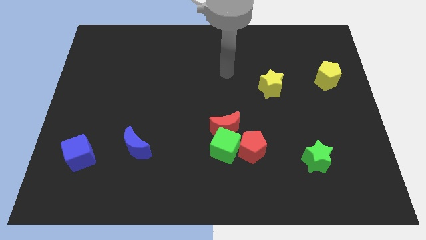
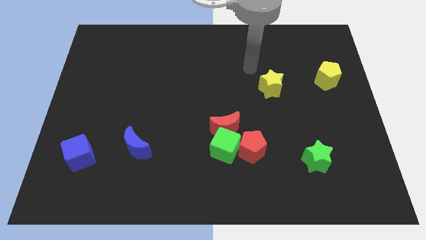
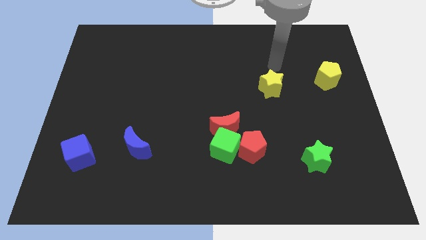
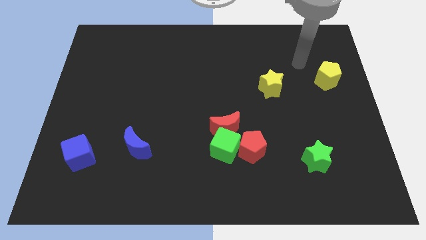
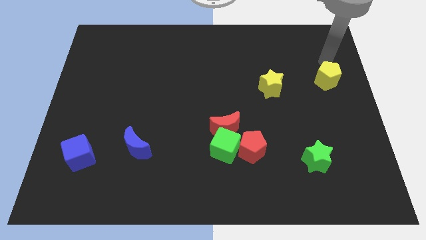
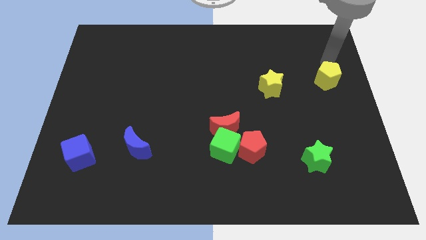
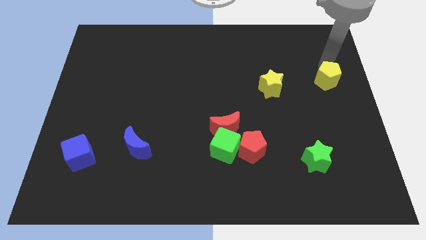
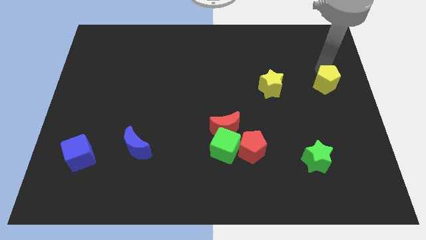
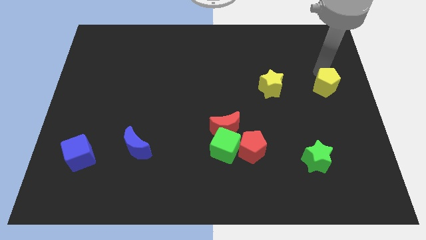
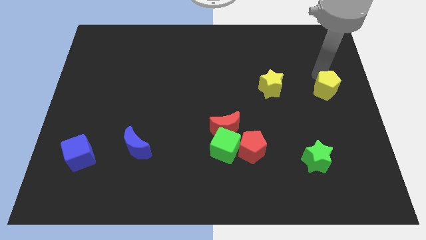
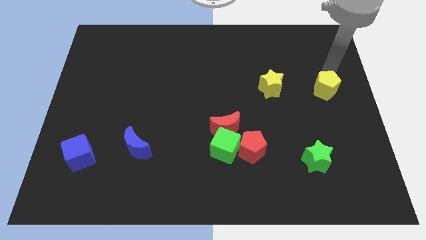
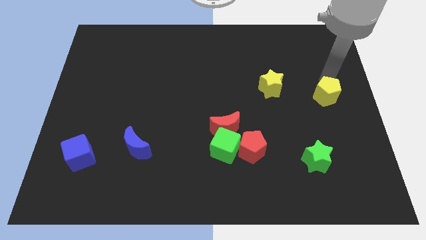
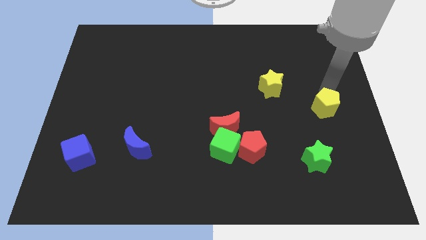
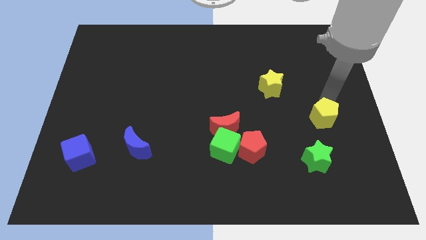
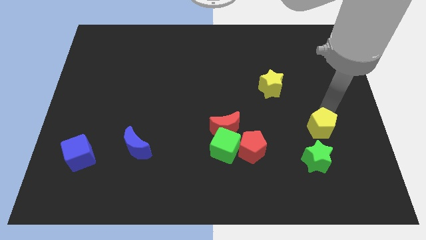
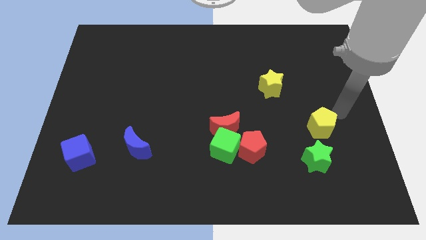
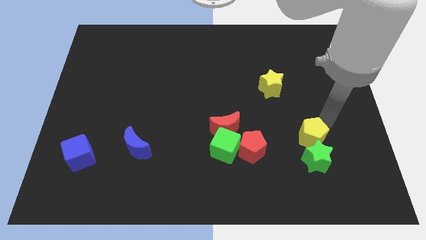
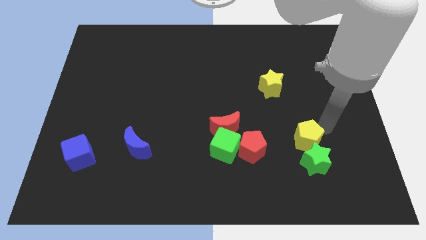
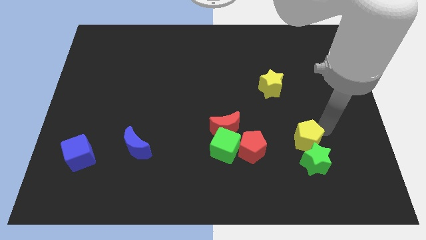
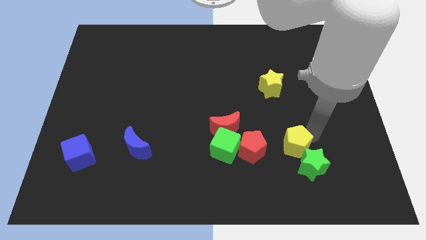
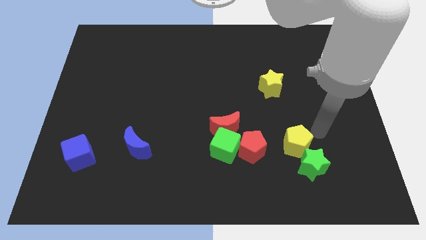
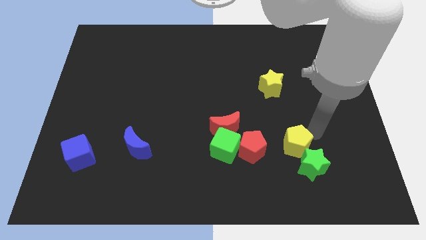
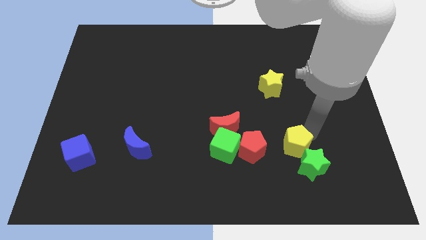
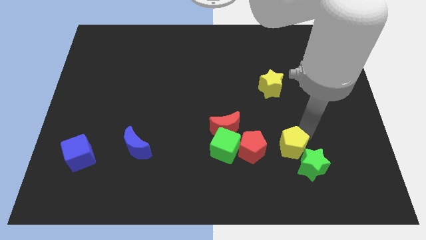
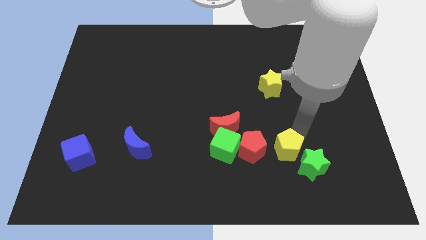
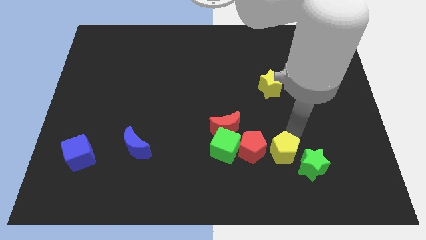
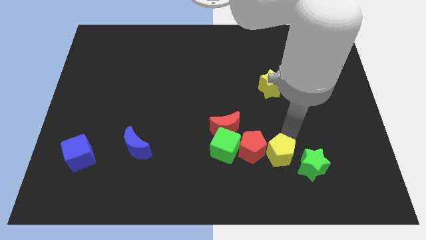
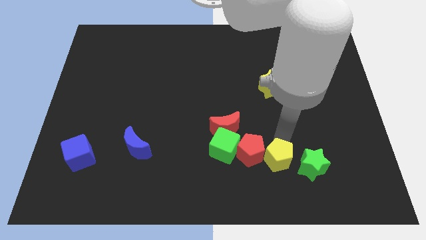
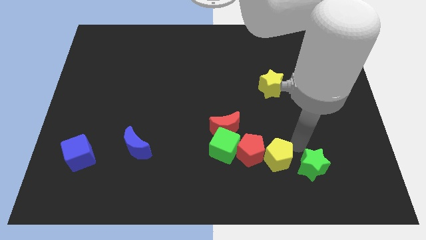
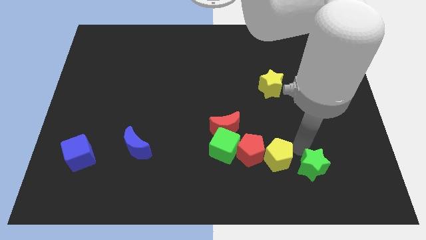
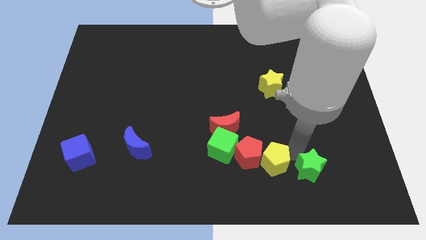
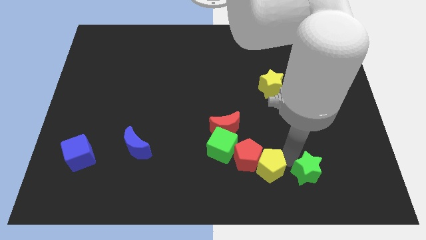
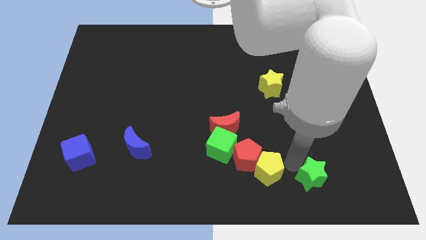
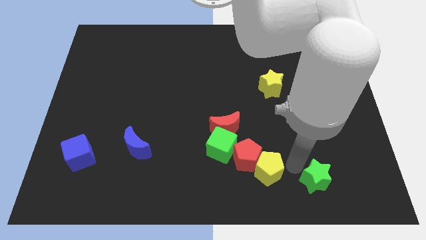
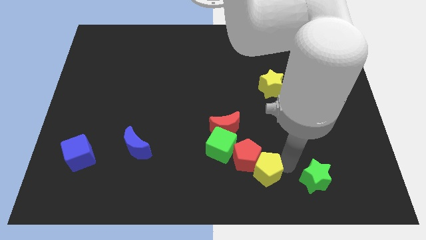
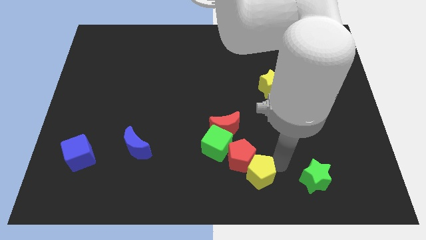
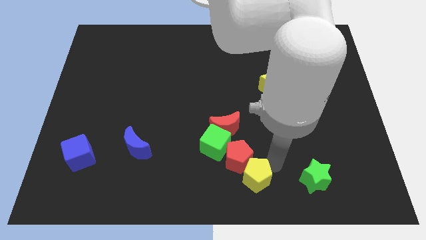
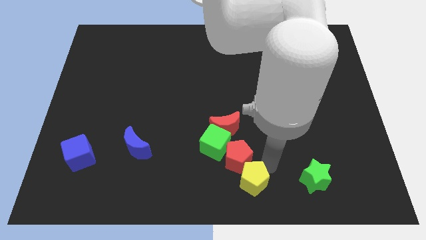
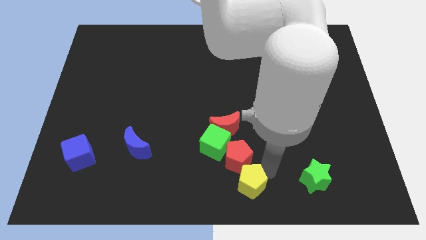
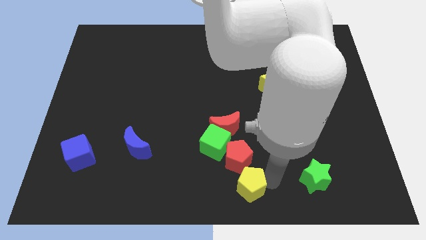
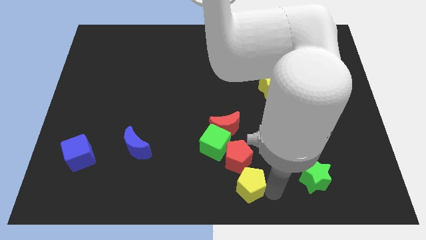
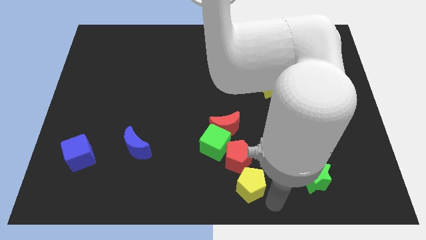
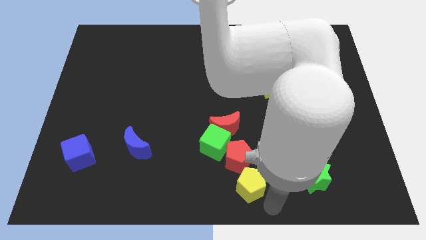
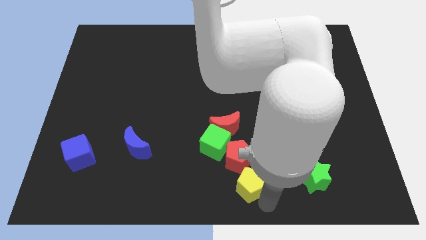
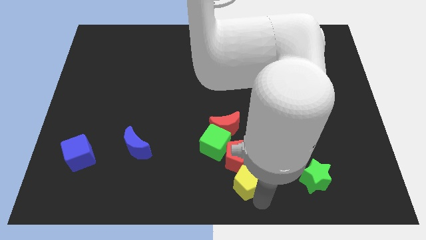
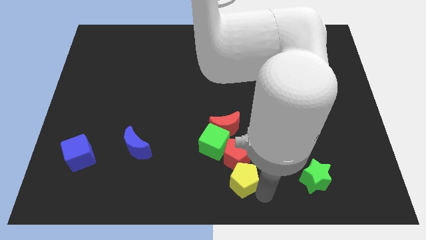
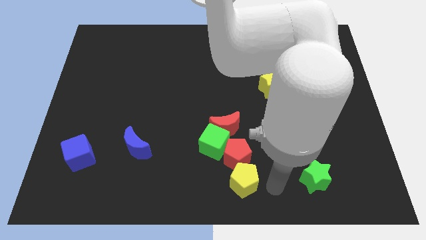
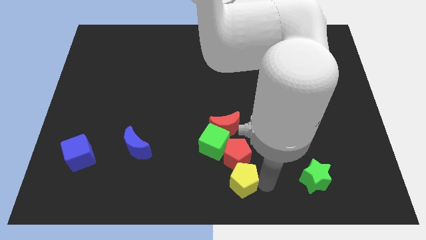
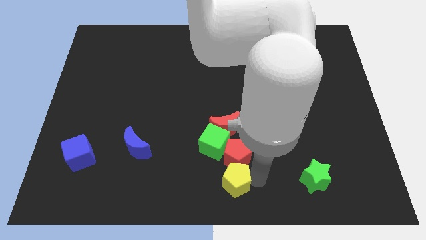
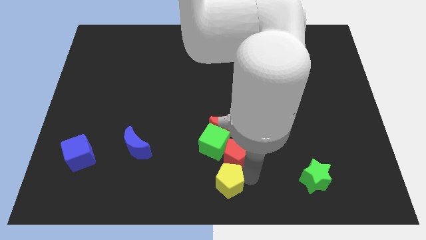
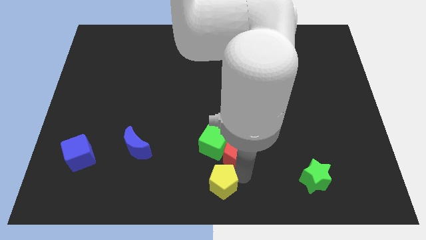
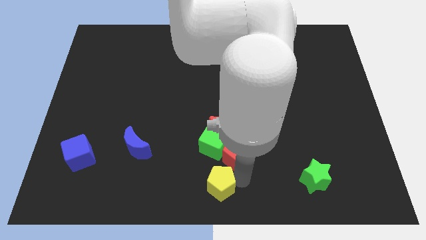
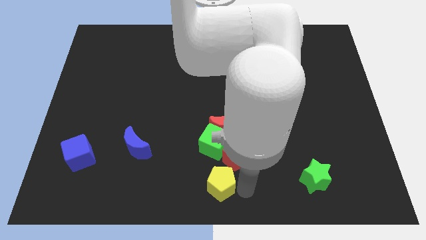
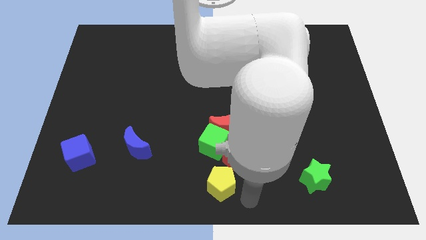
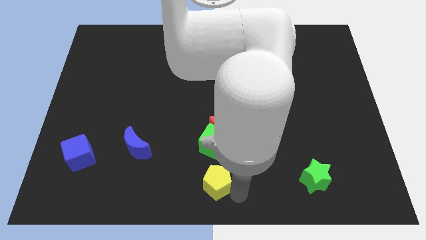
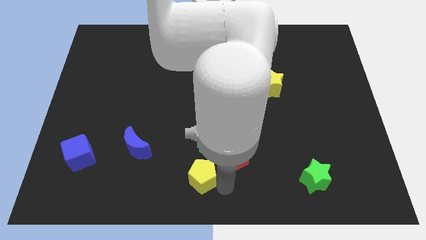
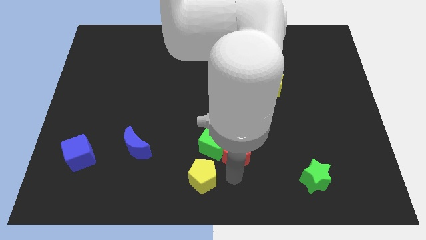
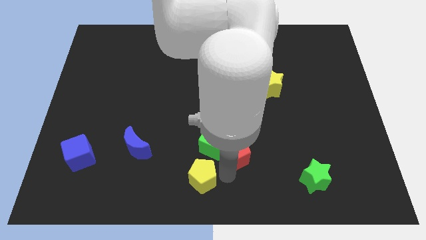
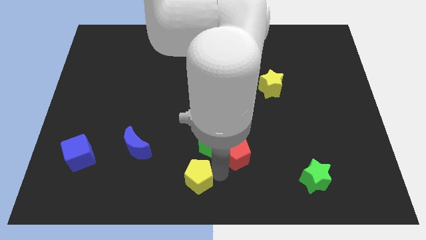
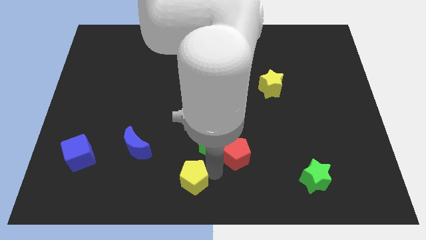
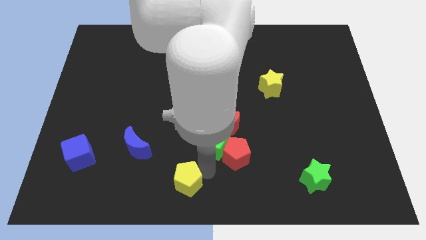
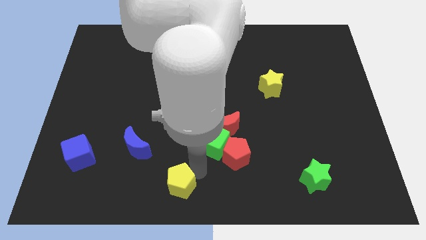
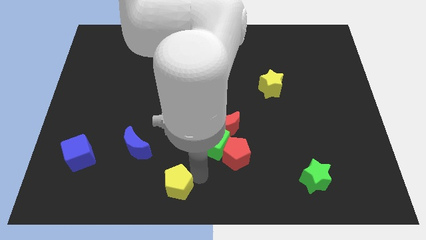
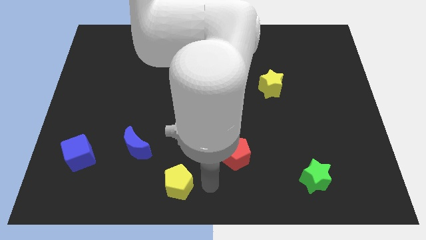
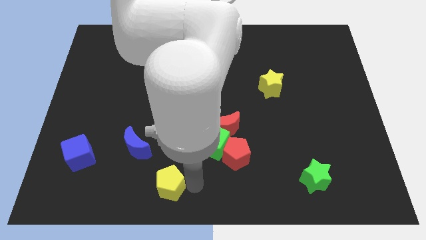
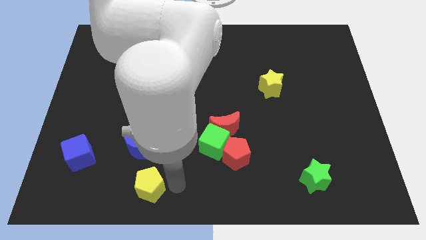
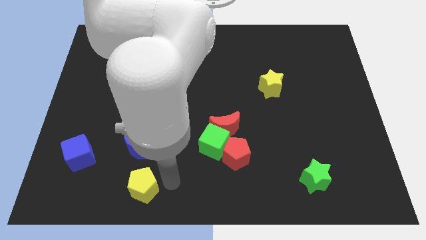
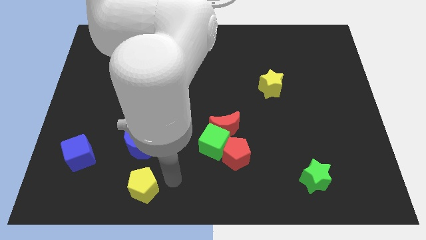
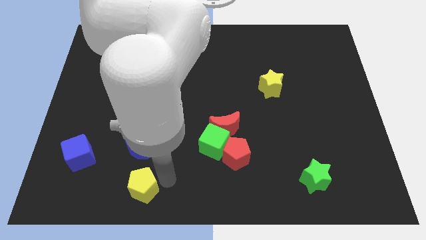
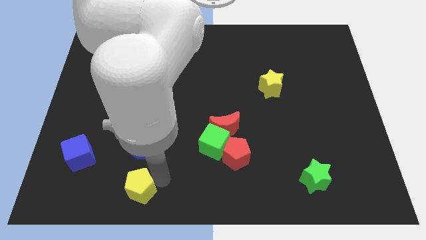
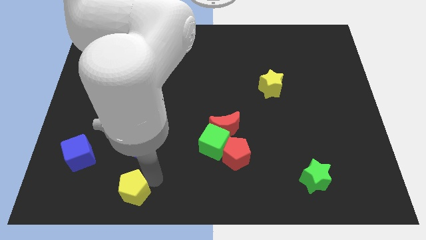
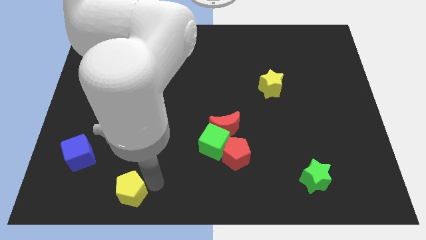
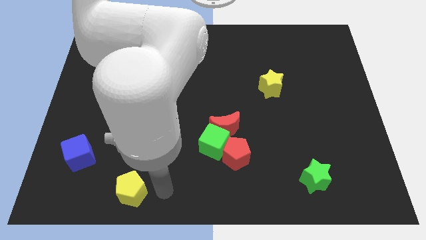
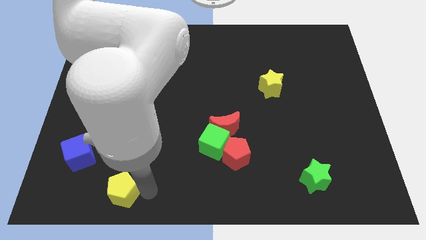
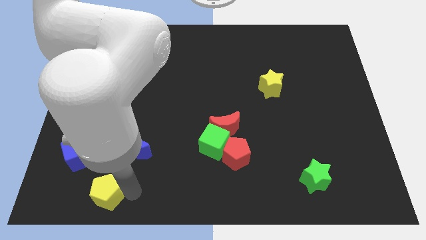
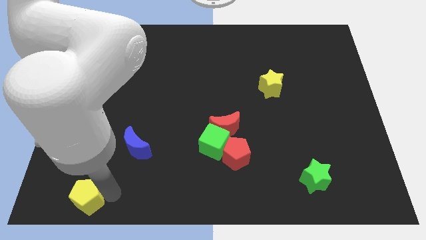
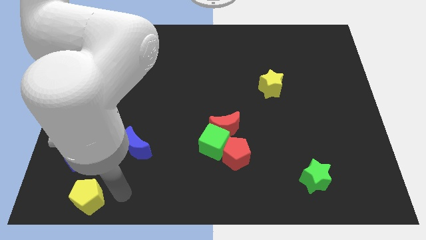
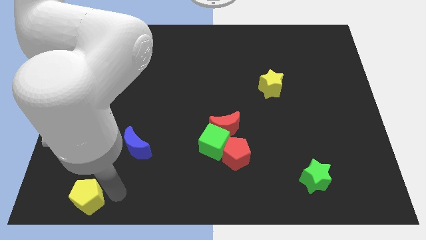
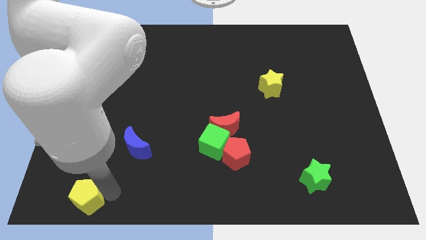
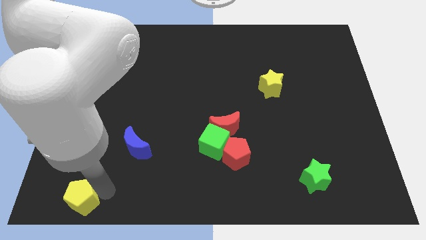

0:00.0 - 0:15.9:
move the yellow pentagon to the bottom left corner
